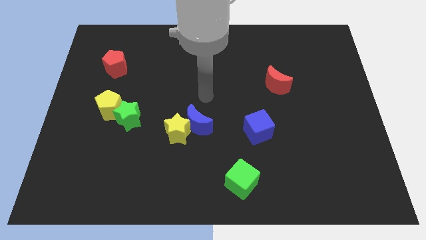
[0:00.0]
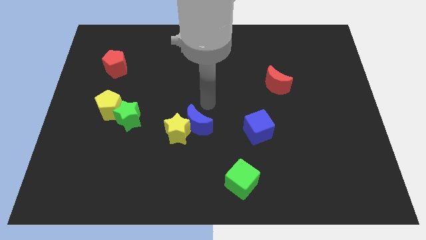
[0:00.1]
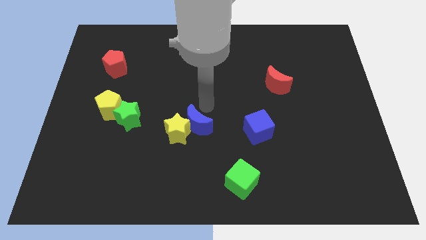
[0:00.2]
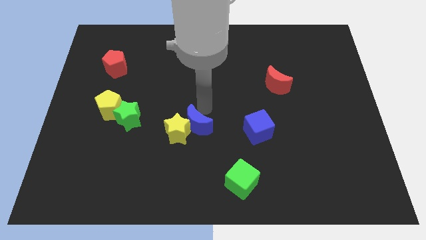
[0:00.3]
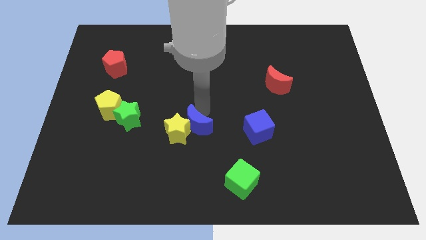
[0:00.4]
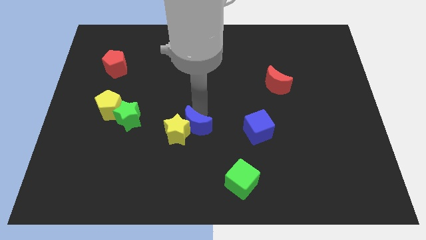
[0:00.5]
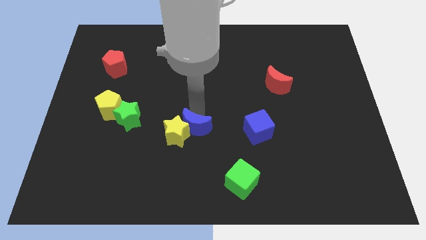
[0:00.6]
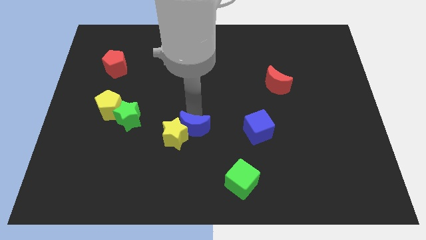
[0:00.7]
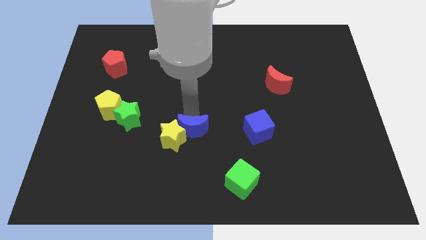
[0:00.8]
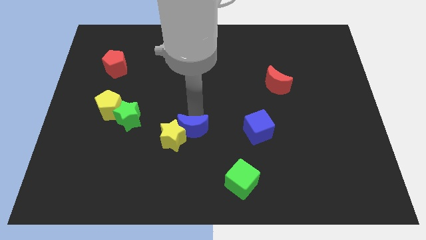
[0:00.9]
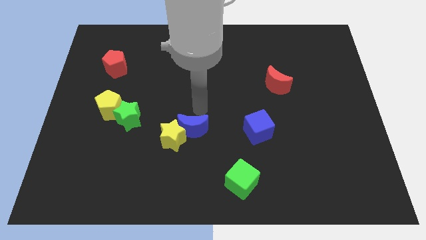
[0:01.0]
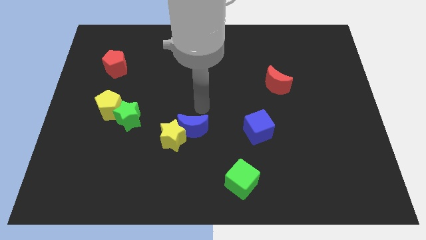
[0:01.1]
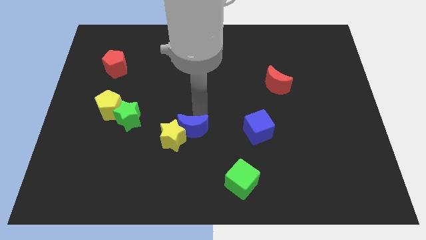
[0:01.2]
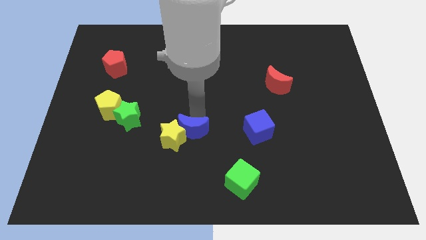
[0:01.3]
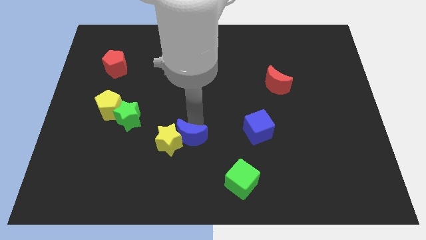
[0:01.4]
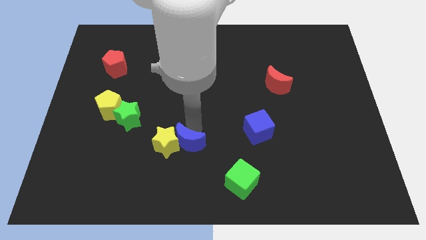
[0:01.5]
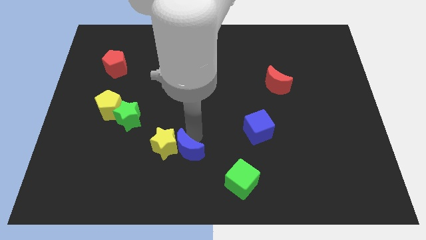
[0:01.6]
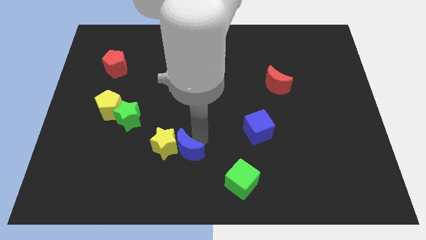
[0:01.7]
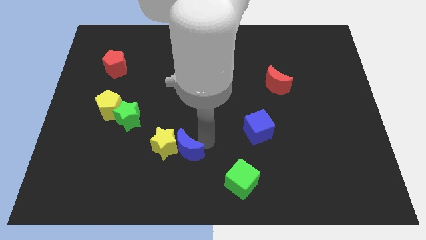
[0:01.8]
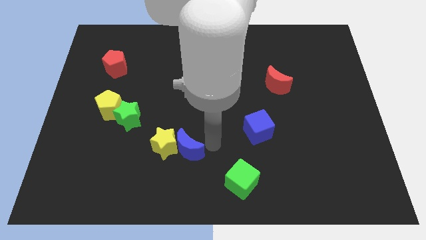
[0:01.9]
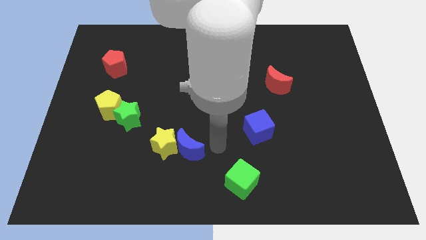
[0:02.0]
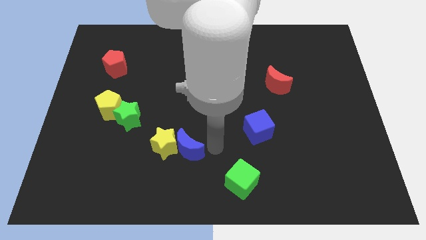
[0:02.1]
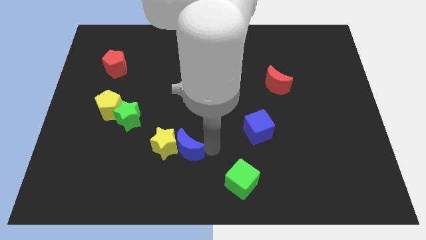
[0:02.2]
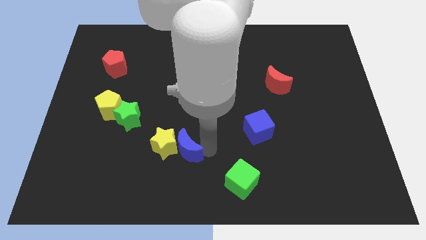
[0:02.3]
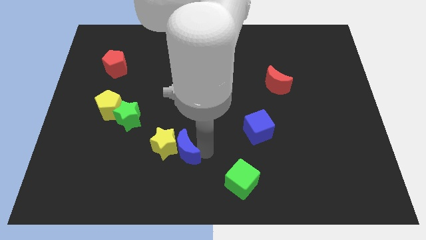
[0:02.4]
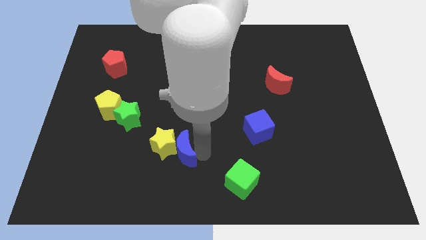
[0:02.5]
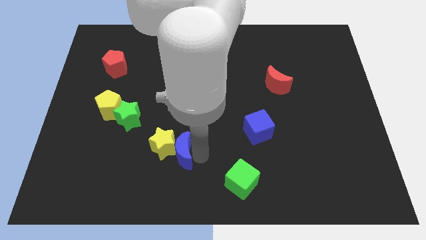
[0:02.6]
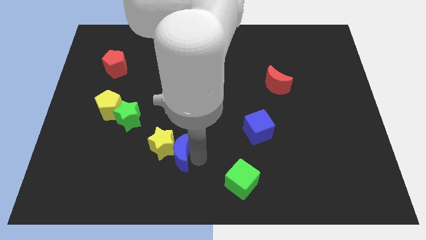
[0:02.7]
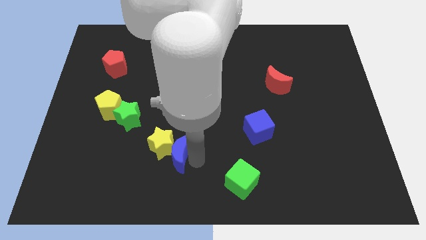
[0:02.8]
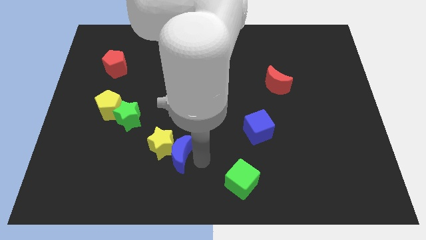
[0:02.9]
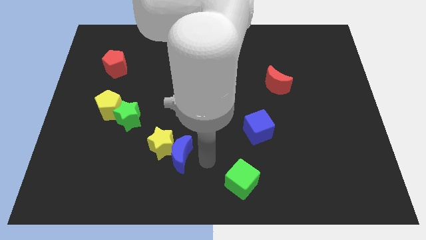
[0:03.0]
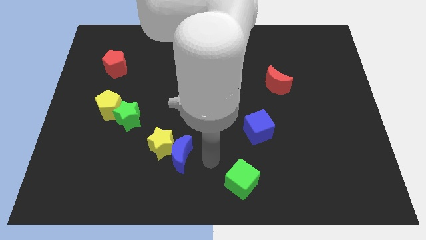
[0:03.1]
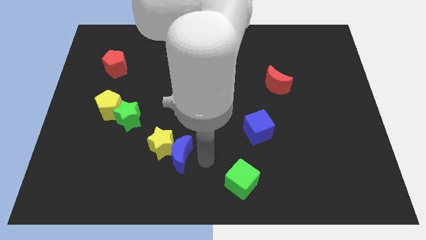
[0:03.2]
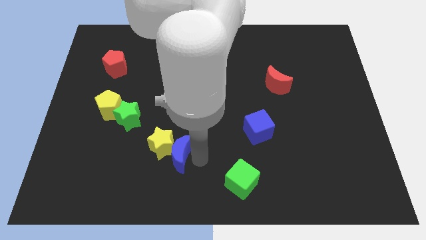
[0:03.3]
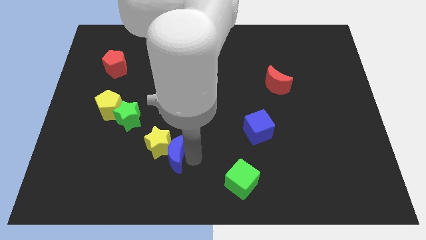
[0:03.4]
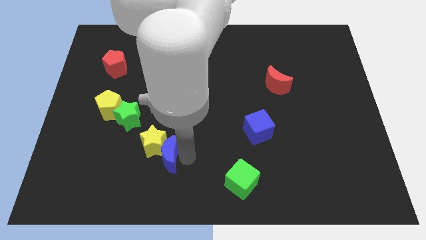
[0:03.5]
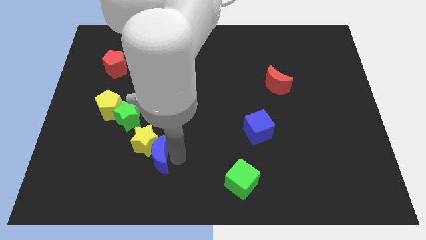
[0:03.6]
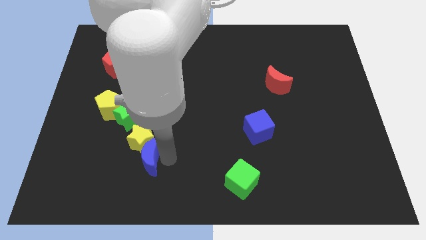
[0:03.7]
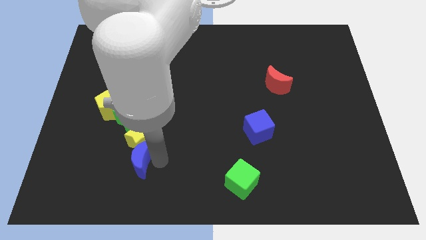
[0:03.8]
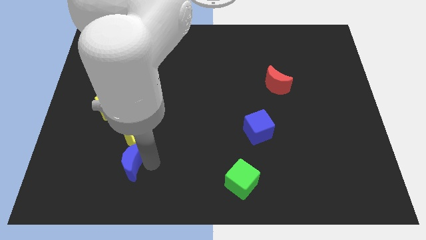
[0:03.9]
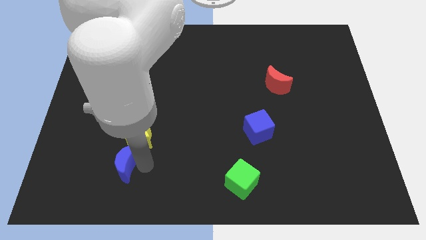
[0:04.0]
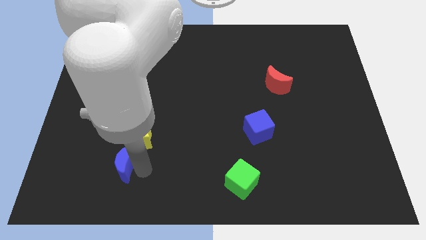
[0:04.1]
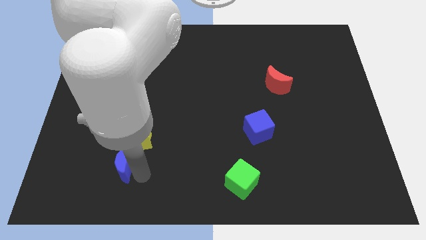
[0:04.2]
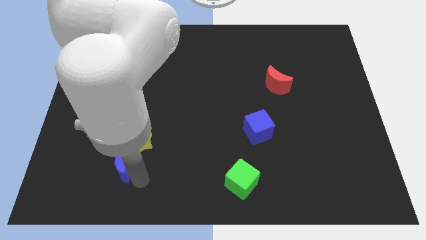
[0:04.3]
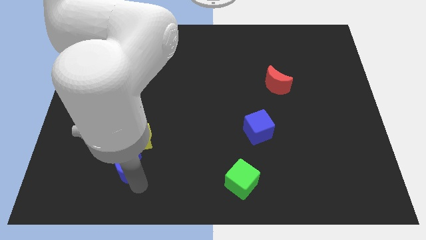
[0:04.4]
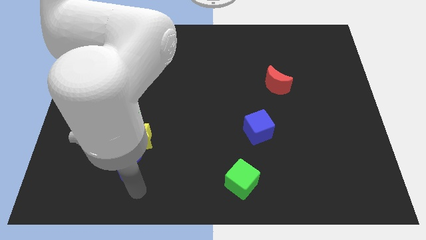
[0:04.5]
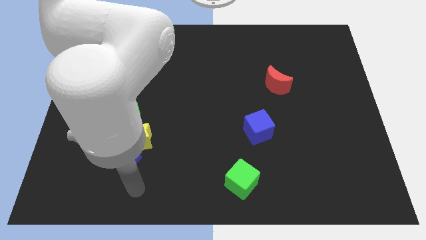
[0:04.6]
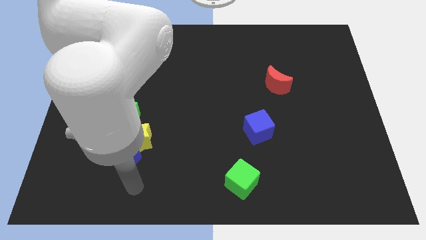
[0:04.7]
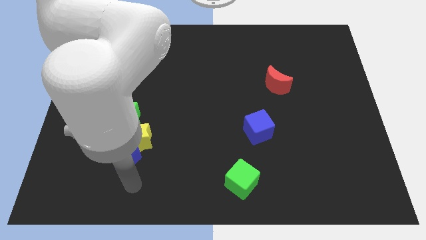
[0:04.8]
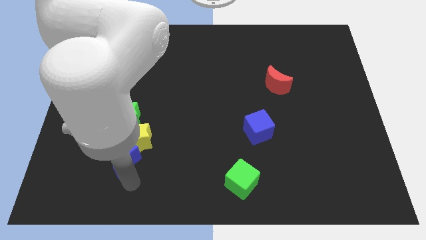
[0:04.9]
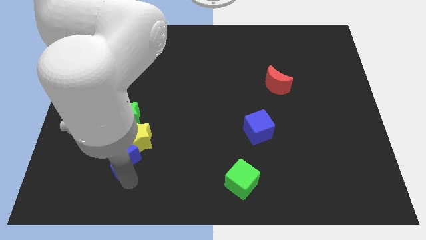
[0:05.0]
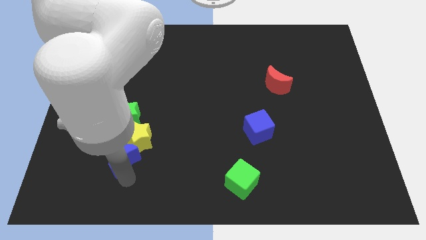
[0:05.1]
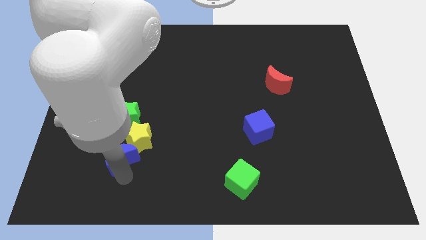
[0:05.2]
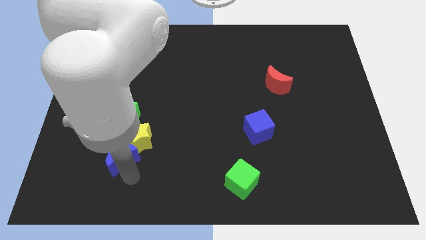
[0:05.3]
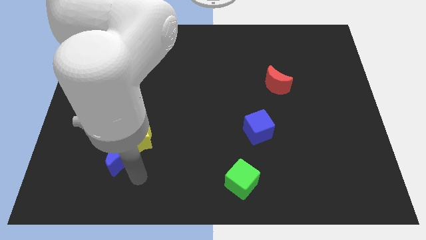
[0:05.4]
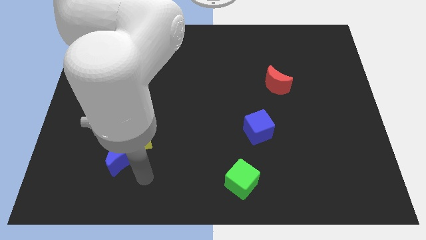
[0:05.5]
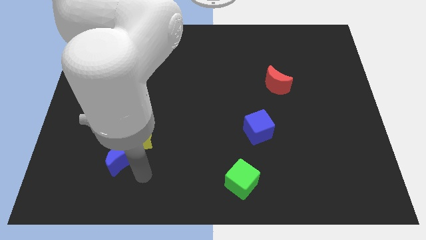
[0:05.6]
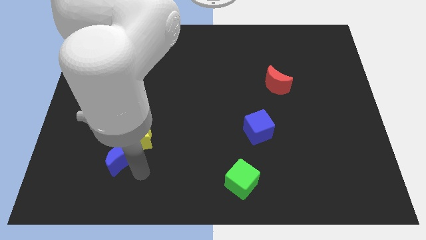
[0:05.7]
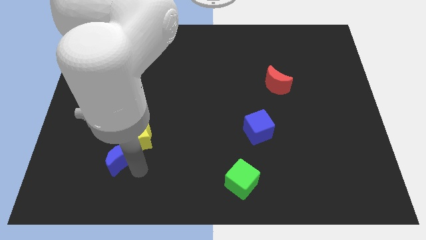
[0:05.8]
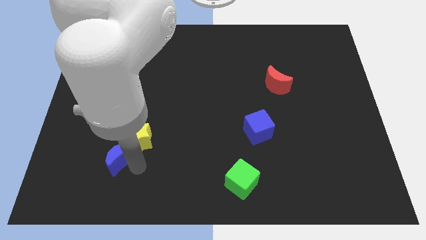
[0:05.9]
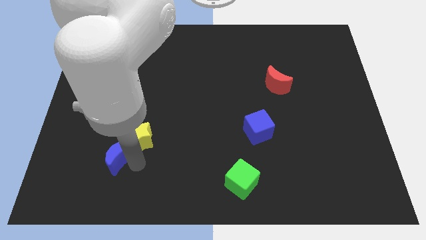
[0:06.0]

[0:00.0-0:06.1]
push the blue moon to the bottom of the yellow pentagon

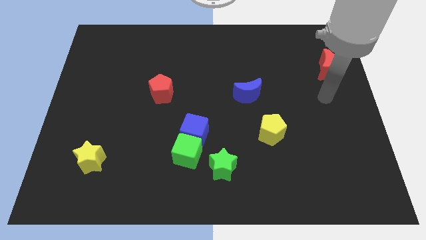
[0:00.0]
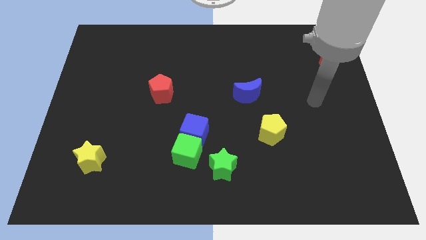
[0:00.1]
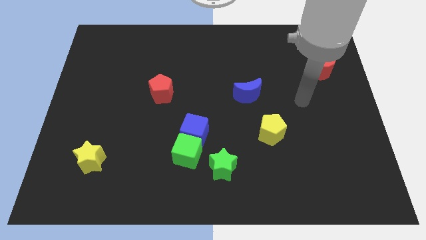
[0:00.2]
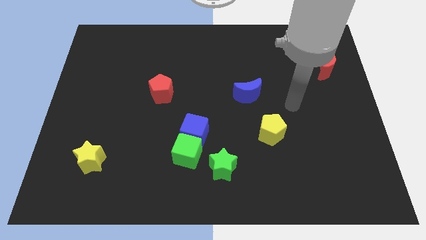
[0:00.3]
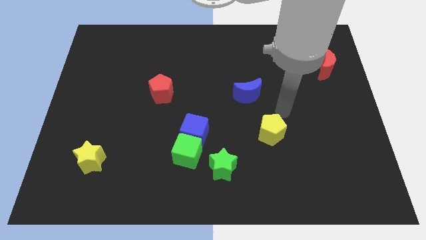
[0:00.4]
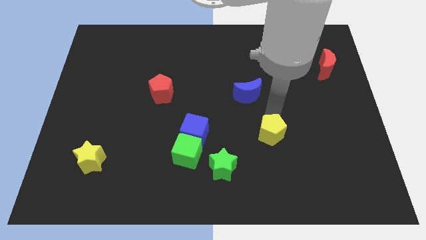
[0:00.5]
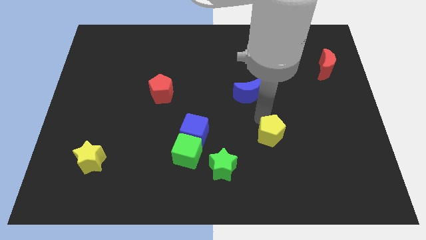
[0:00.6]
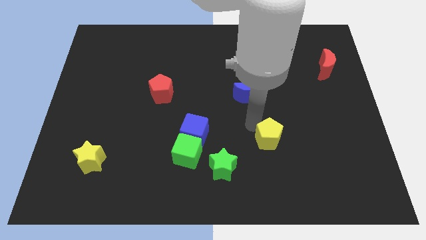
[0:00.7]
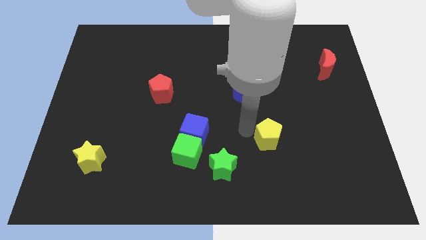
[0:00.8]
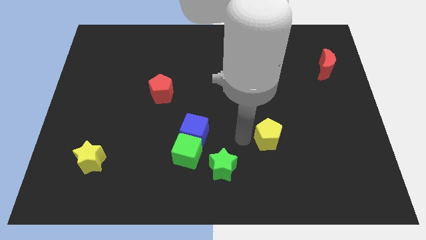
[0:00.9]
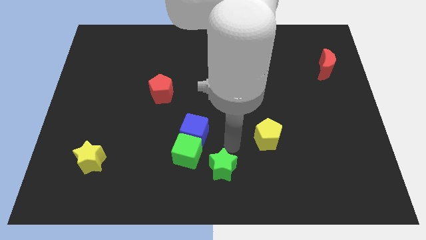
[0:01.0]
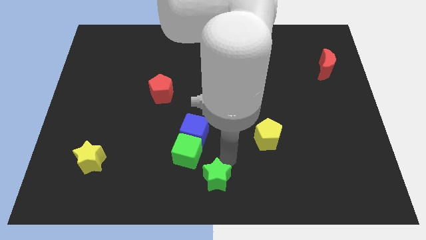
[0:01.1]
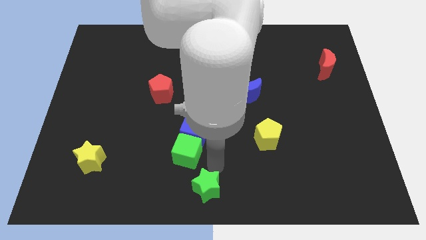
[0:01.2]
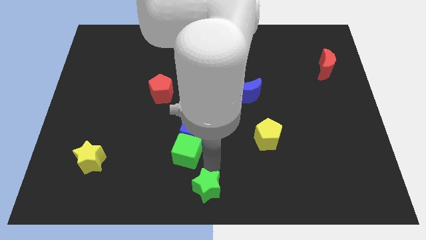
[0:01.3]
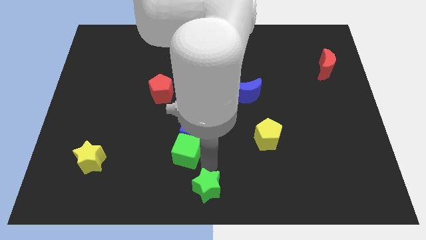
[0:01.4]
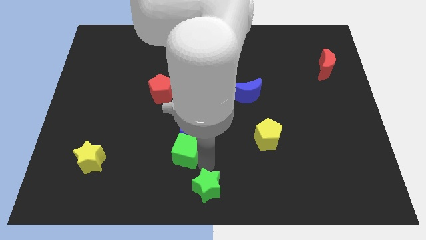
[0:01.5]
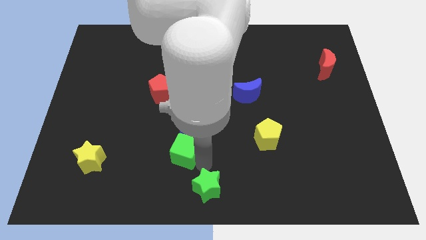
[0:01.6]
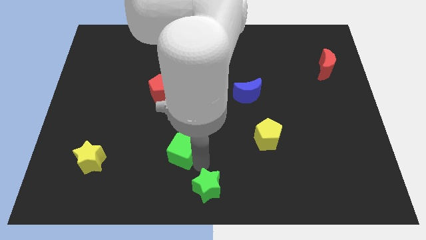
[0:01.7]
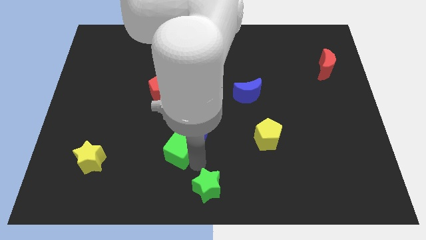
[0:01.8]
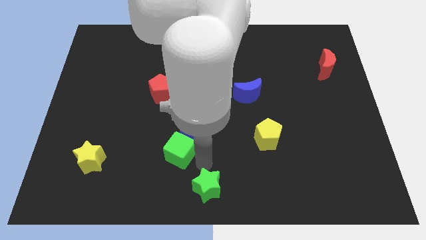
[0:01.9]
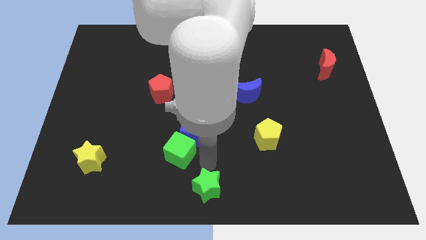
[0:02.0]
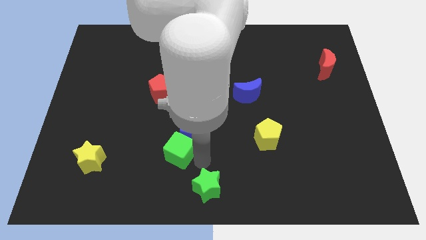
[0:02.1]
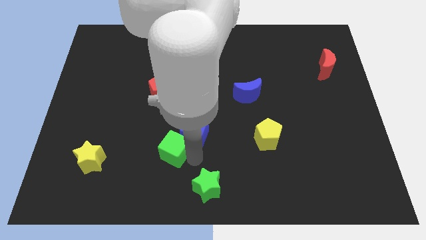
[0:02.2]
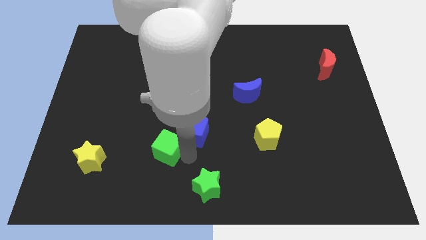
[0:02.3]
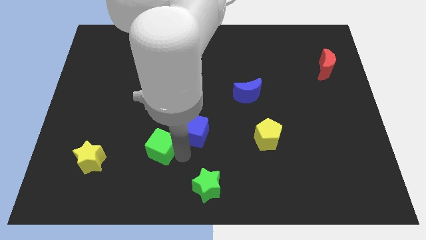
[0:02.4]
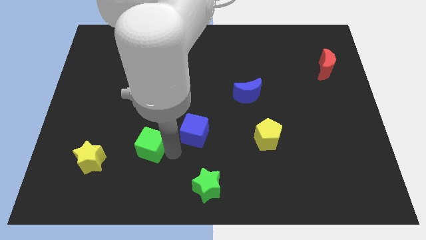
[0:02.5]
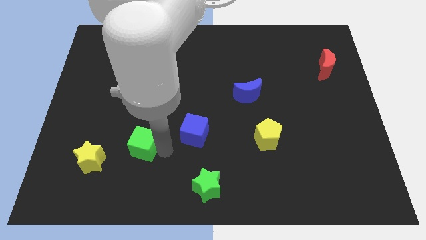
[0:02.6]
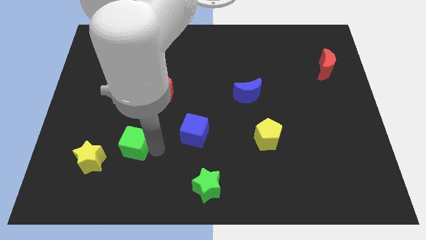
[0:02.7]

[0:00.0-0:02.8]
push the green cube diagonally up and to the right of the yellow star
